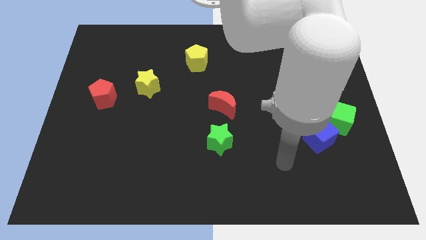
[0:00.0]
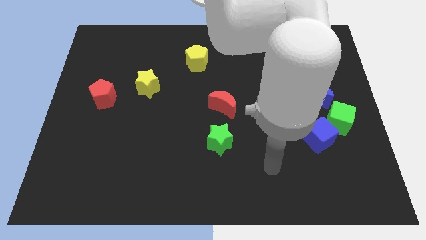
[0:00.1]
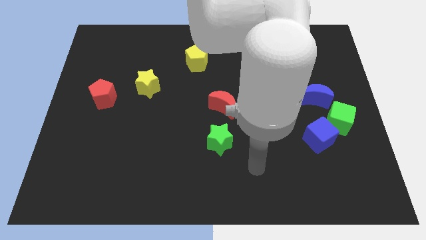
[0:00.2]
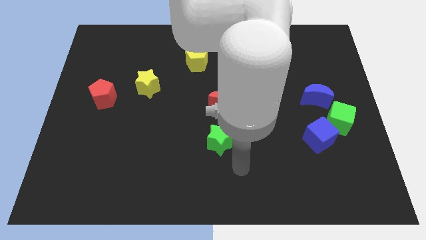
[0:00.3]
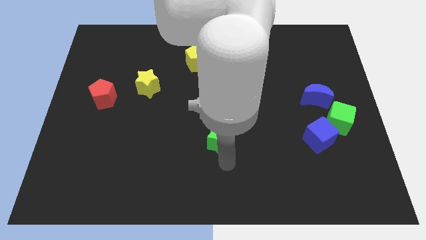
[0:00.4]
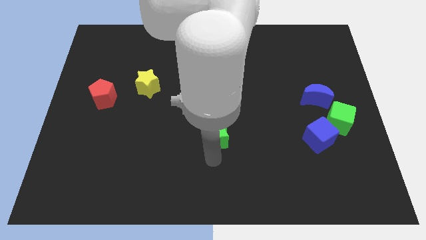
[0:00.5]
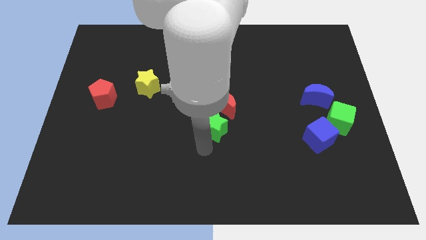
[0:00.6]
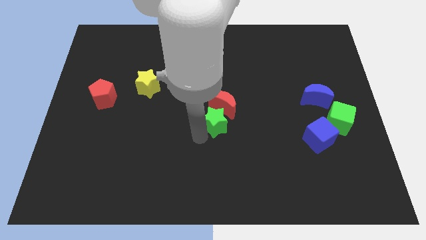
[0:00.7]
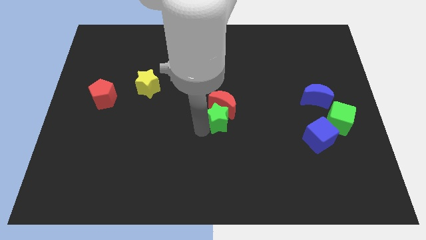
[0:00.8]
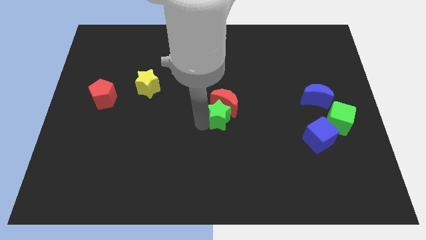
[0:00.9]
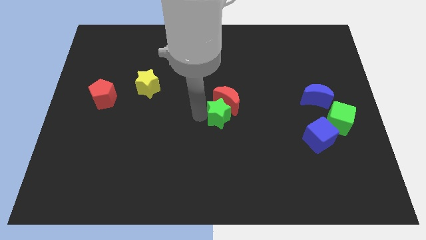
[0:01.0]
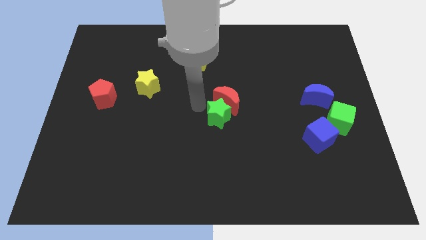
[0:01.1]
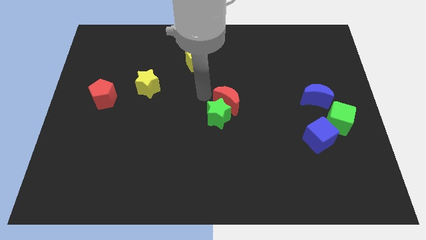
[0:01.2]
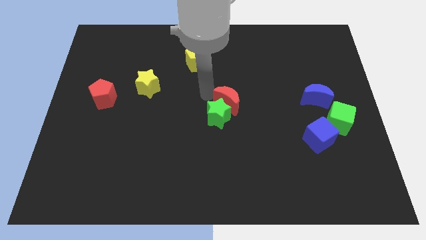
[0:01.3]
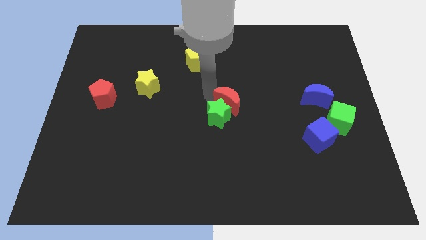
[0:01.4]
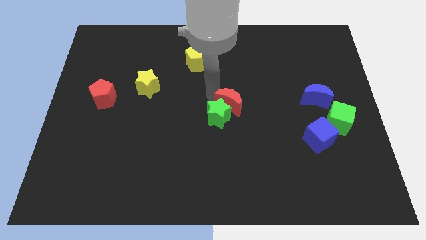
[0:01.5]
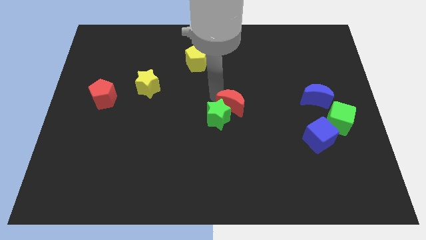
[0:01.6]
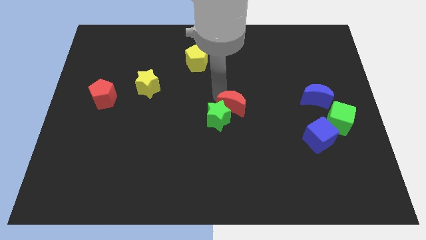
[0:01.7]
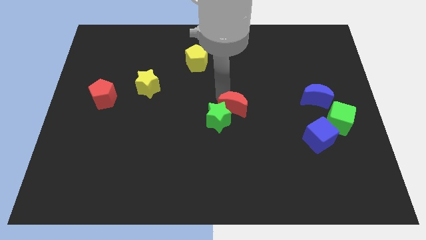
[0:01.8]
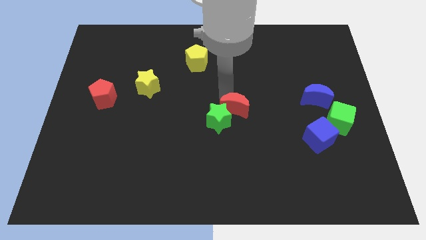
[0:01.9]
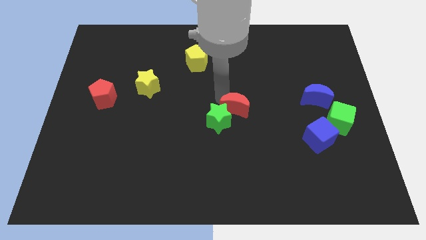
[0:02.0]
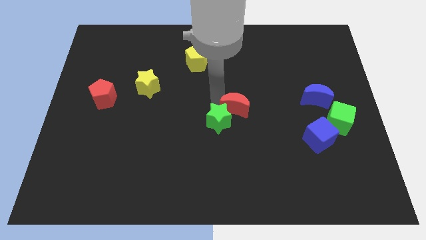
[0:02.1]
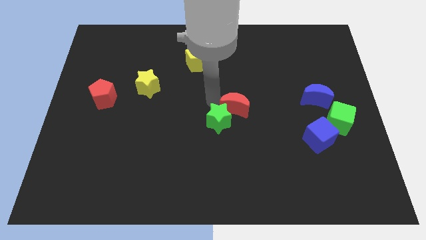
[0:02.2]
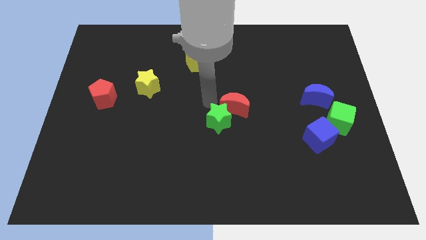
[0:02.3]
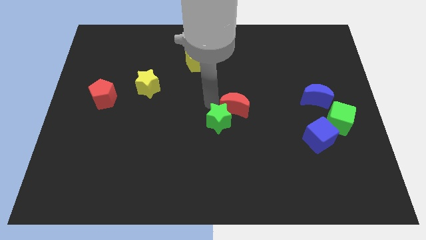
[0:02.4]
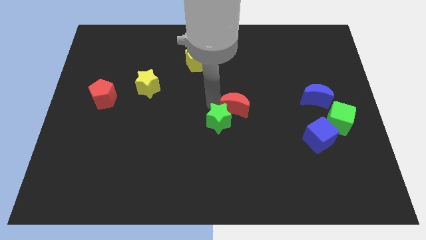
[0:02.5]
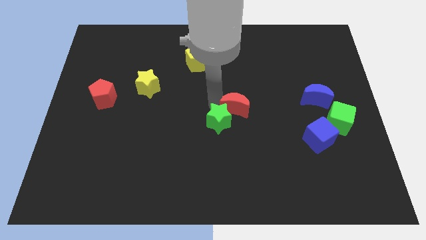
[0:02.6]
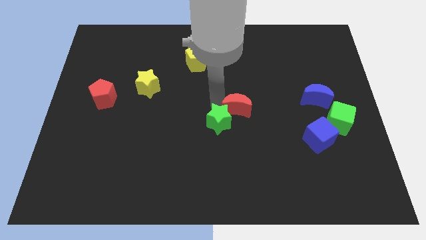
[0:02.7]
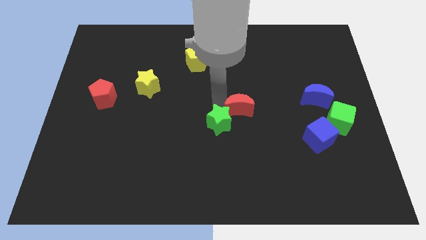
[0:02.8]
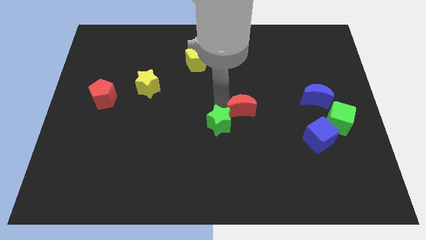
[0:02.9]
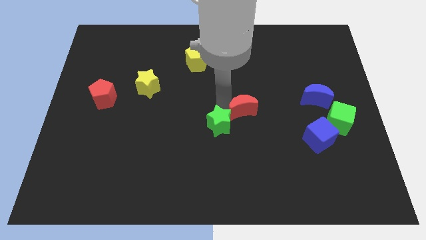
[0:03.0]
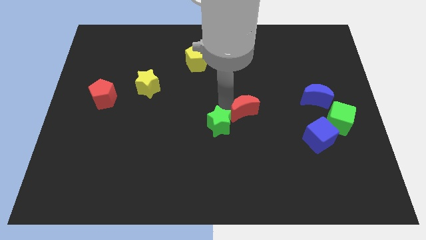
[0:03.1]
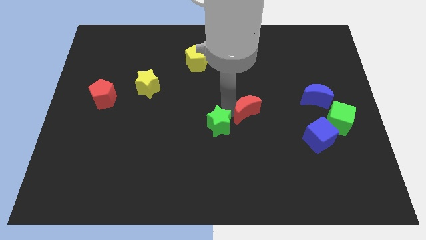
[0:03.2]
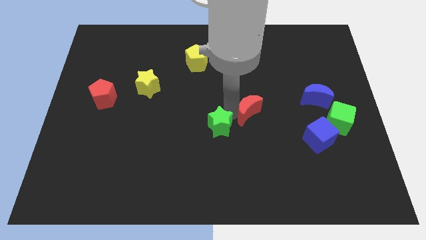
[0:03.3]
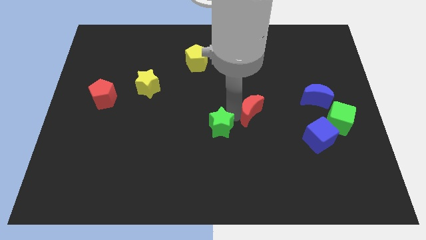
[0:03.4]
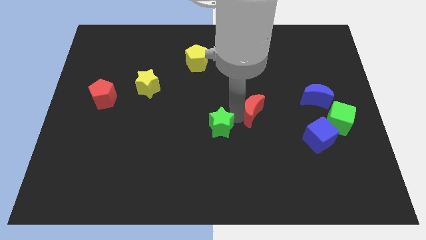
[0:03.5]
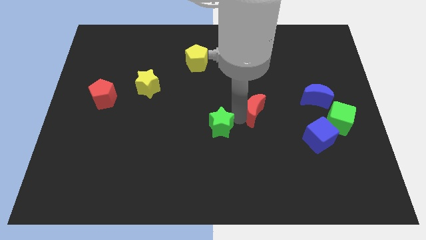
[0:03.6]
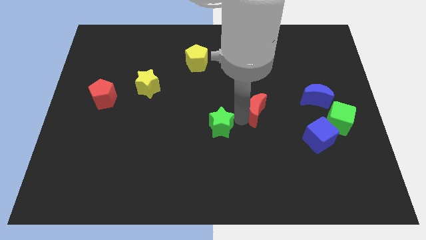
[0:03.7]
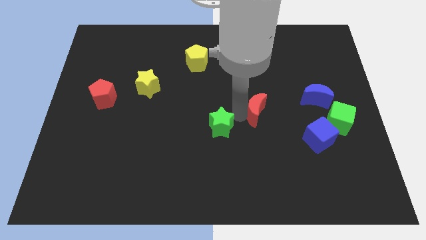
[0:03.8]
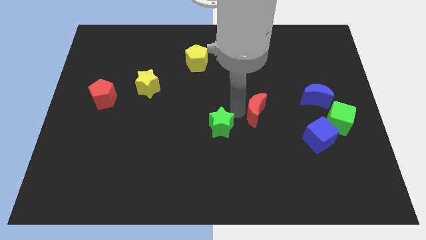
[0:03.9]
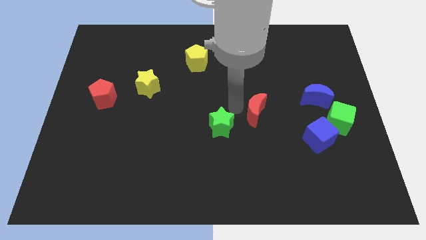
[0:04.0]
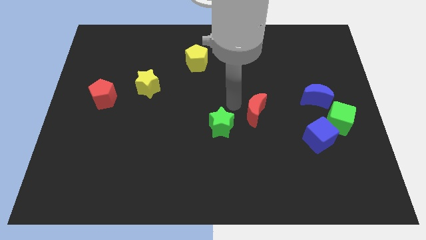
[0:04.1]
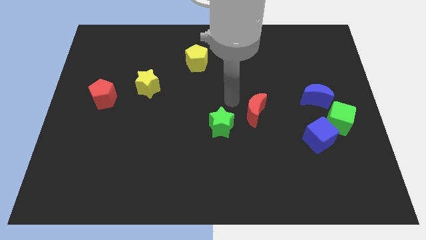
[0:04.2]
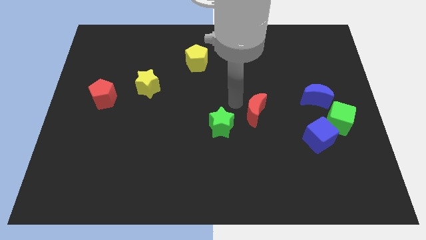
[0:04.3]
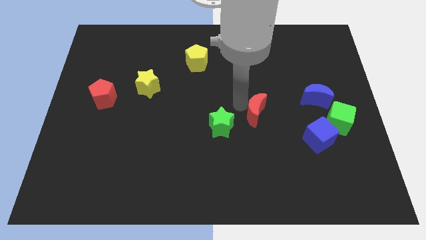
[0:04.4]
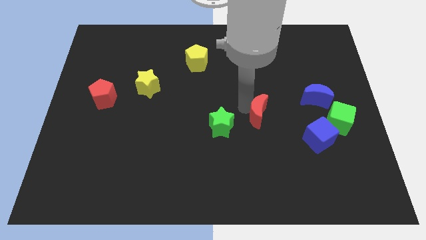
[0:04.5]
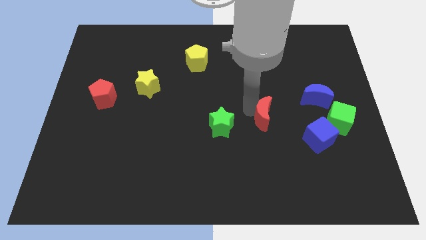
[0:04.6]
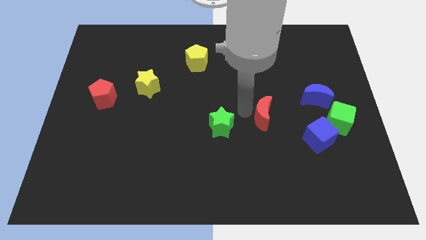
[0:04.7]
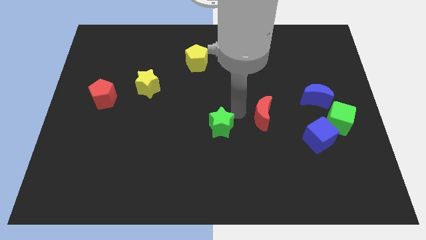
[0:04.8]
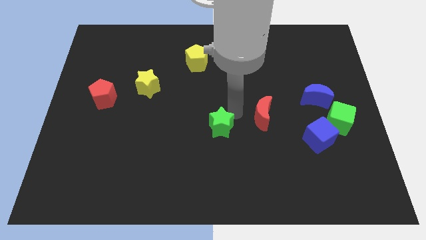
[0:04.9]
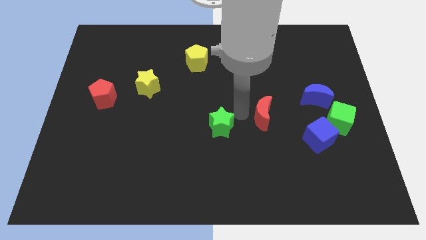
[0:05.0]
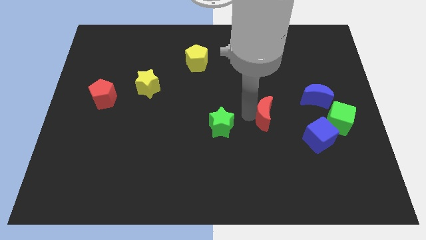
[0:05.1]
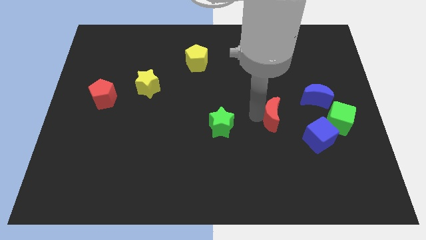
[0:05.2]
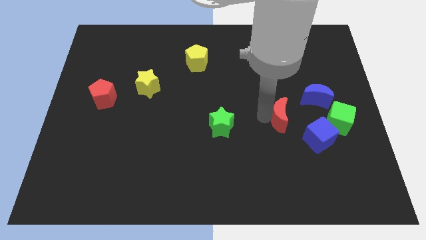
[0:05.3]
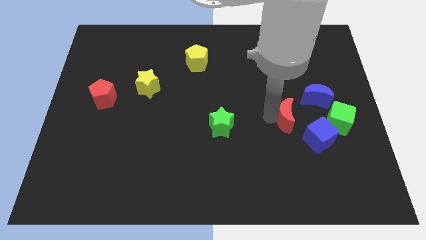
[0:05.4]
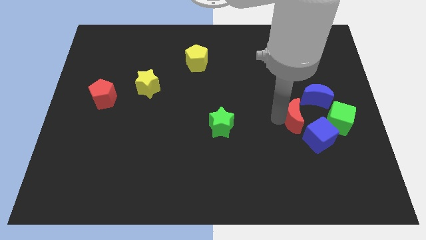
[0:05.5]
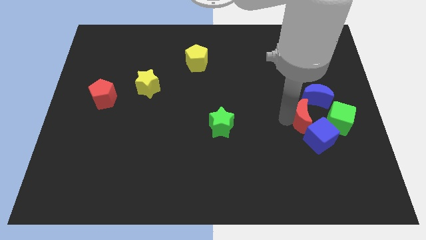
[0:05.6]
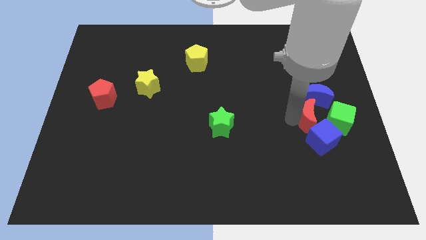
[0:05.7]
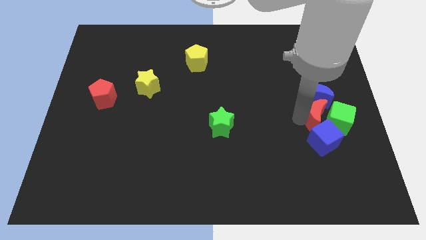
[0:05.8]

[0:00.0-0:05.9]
put the red moon close to the green cube

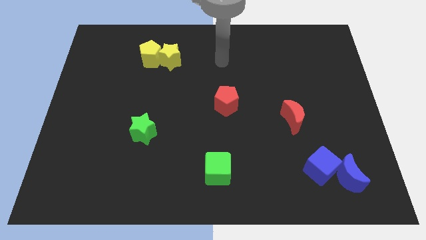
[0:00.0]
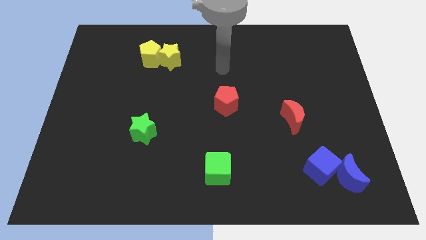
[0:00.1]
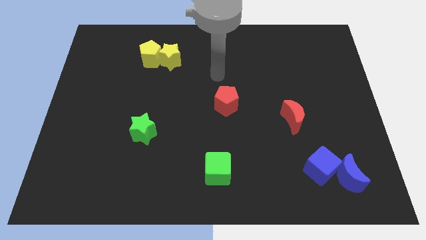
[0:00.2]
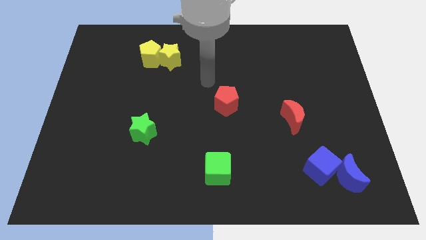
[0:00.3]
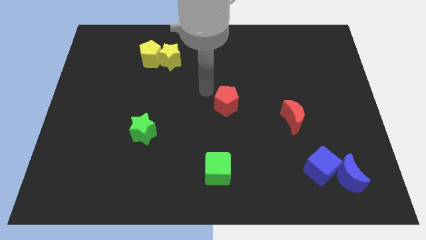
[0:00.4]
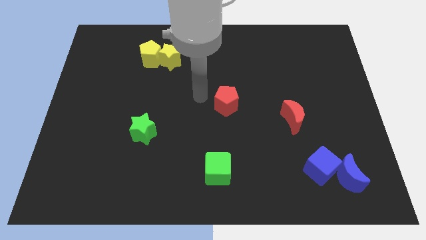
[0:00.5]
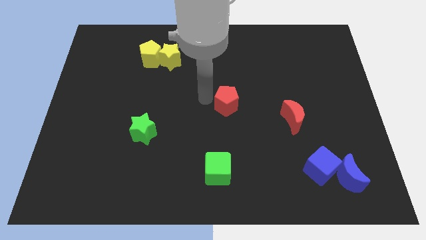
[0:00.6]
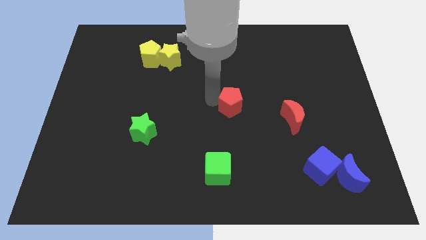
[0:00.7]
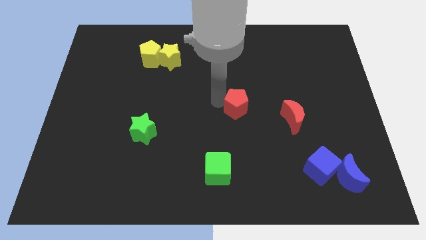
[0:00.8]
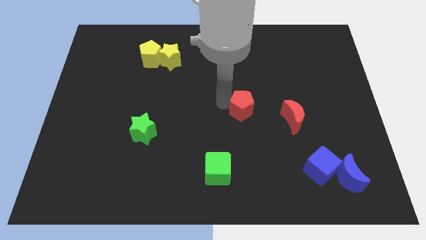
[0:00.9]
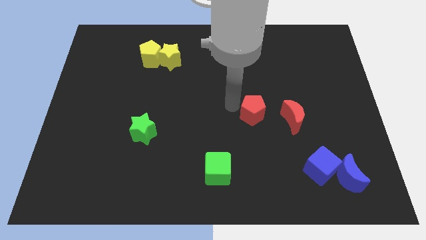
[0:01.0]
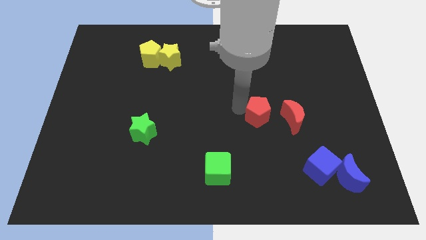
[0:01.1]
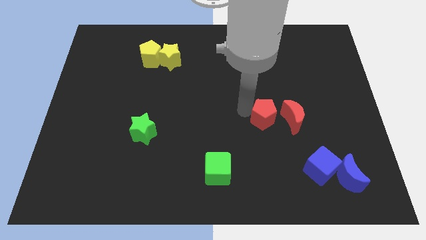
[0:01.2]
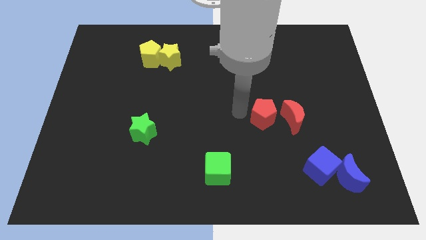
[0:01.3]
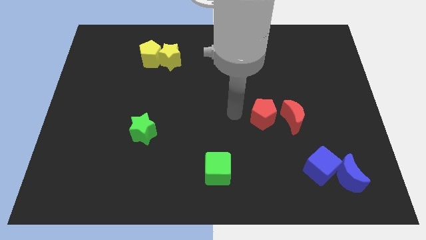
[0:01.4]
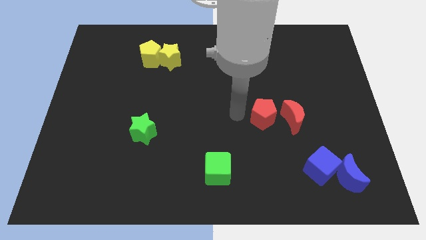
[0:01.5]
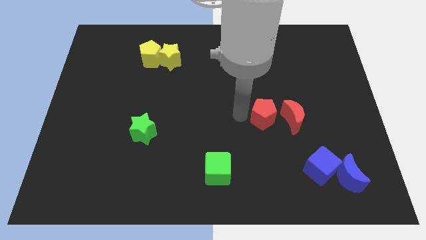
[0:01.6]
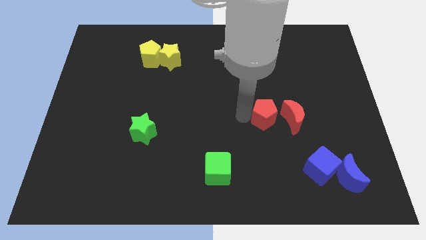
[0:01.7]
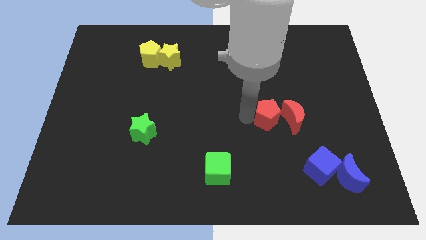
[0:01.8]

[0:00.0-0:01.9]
push the red pentagon next to the red moon
